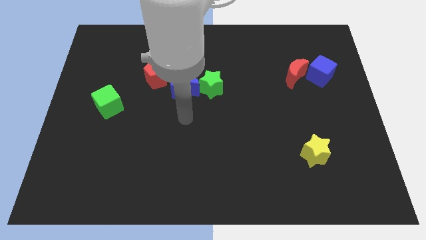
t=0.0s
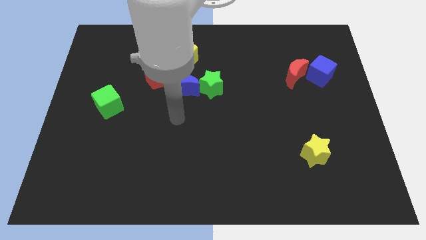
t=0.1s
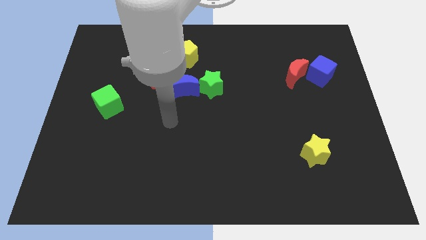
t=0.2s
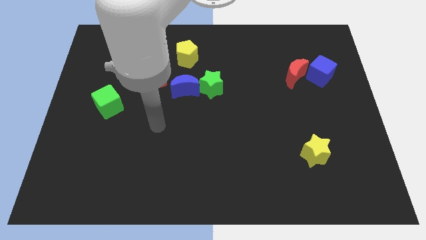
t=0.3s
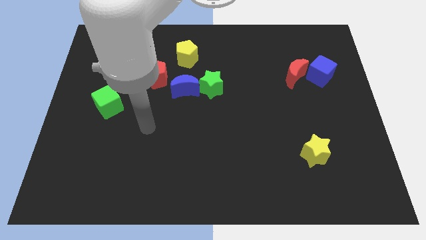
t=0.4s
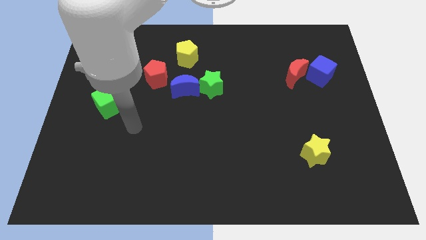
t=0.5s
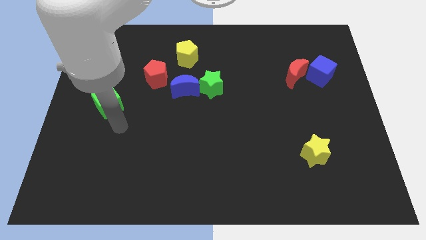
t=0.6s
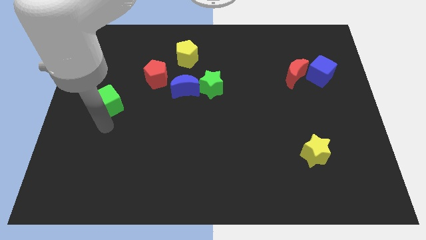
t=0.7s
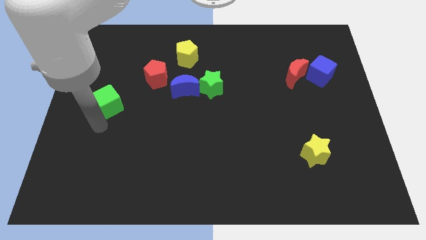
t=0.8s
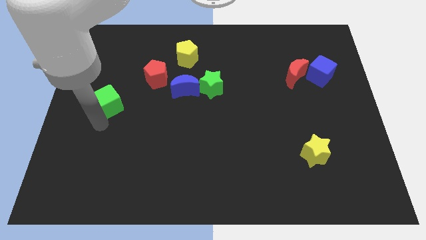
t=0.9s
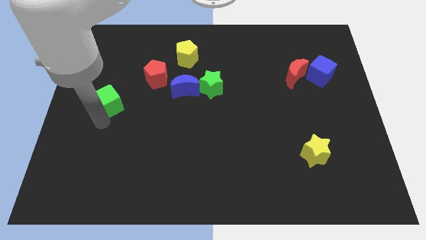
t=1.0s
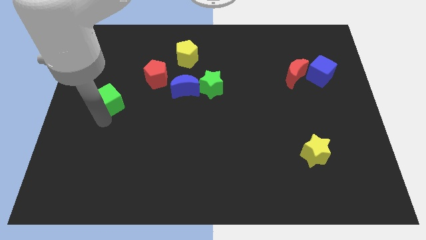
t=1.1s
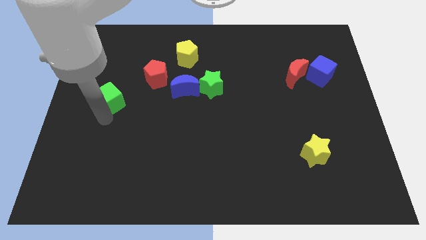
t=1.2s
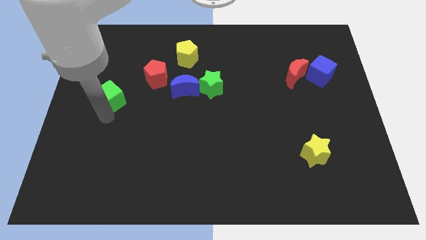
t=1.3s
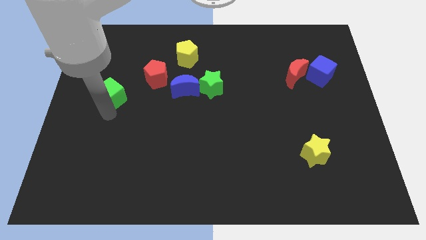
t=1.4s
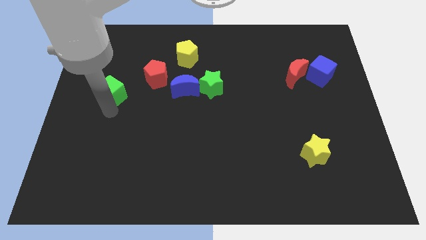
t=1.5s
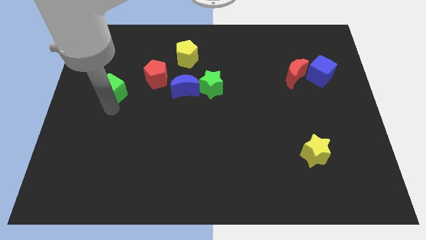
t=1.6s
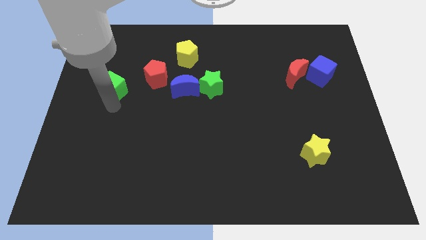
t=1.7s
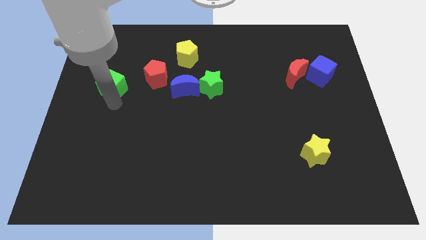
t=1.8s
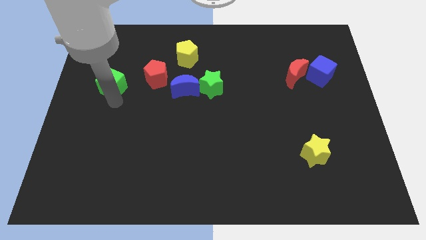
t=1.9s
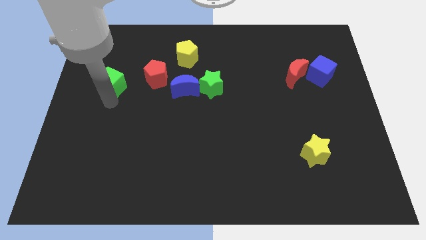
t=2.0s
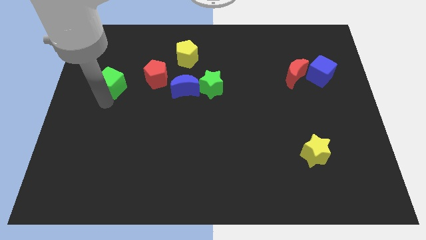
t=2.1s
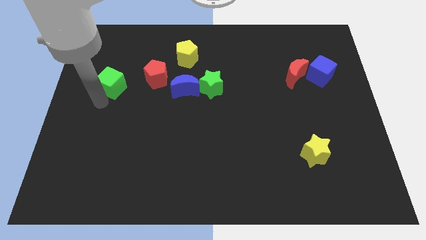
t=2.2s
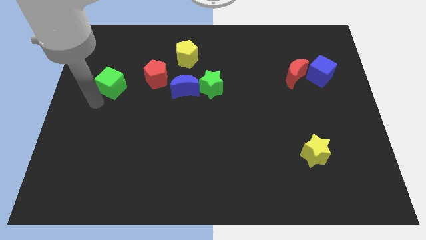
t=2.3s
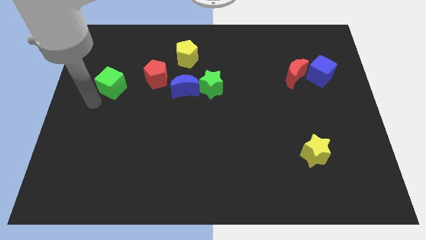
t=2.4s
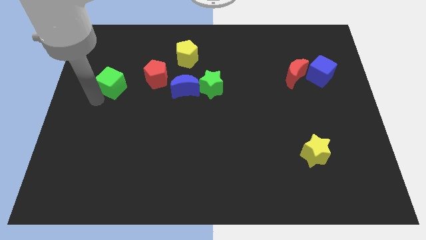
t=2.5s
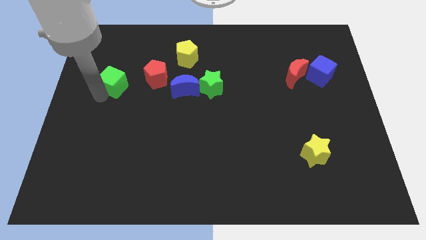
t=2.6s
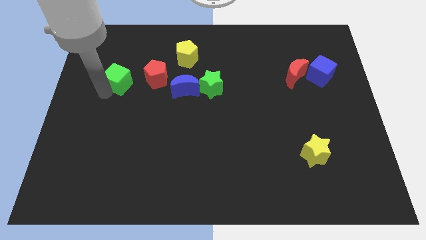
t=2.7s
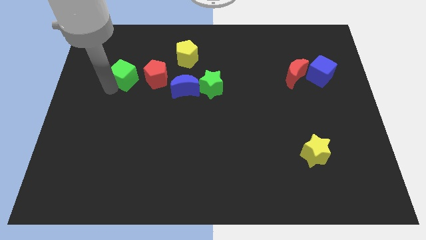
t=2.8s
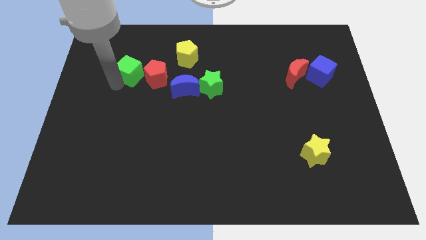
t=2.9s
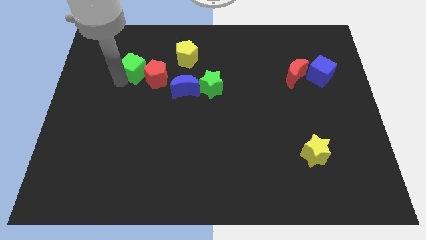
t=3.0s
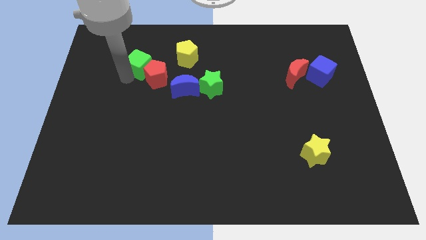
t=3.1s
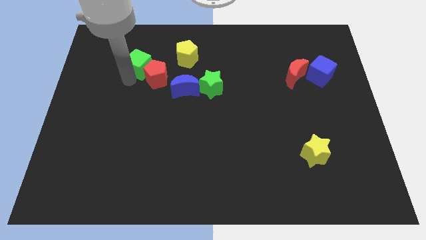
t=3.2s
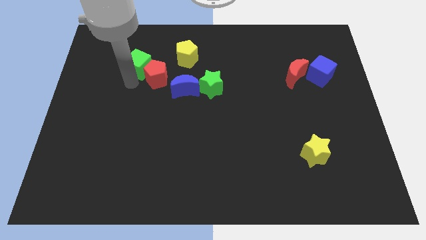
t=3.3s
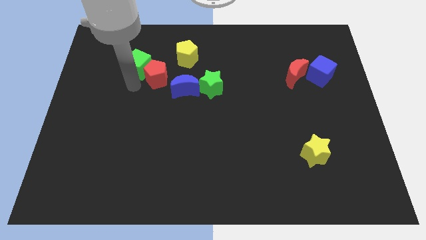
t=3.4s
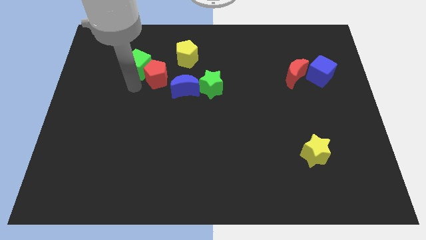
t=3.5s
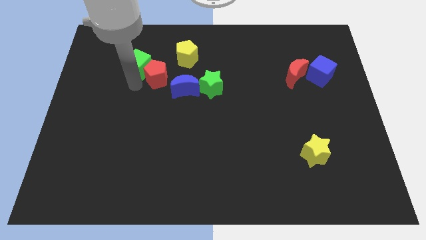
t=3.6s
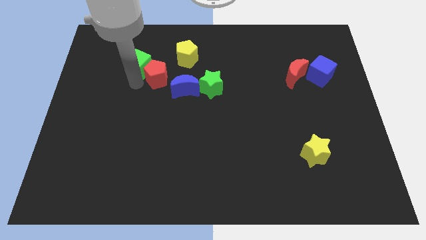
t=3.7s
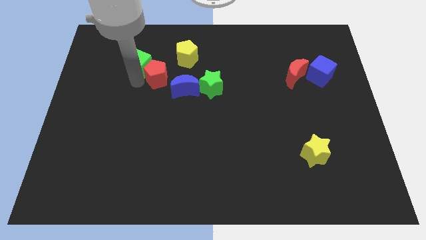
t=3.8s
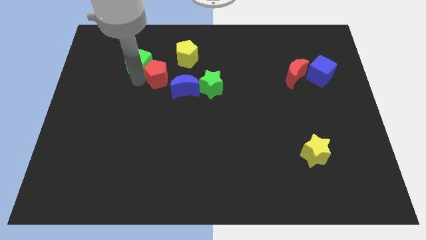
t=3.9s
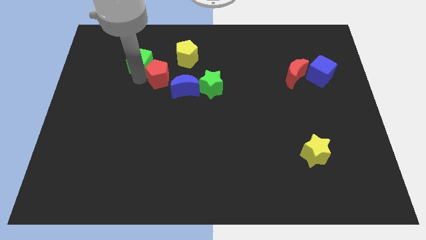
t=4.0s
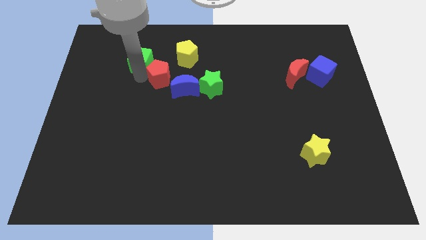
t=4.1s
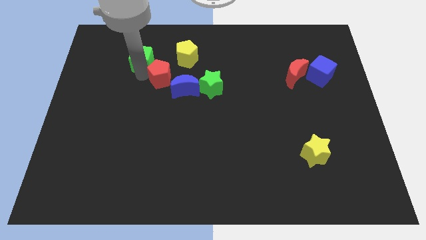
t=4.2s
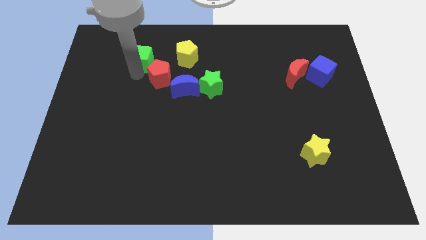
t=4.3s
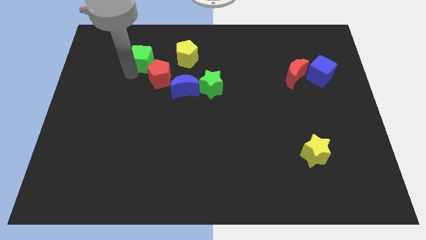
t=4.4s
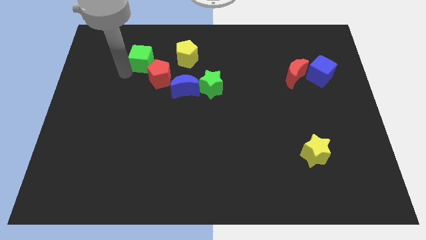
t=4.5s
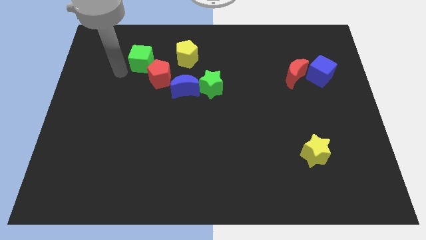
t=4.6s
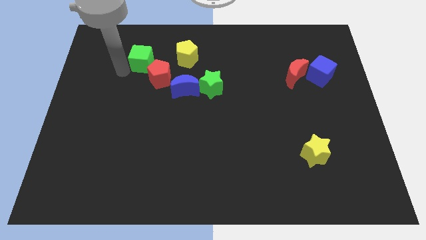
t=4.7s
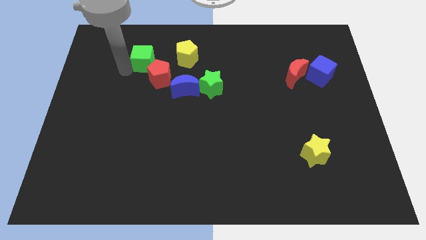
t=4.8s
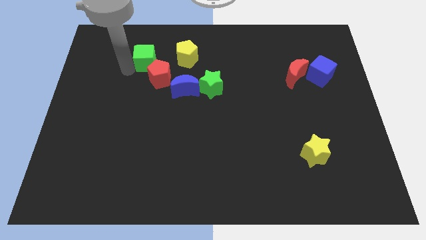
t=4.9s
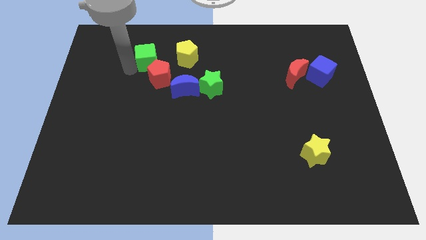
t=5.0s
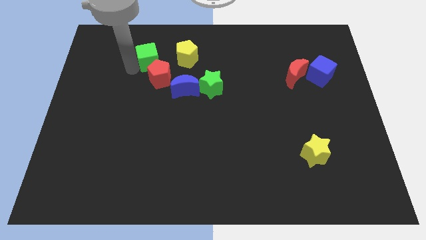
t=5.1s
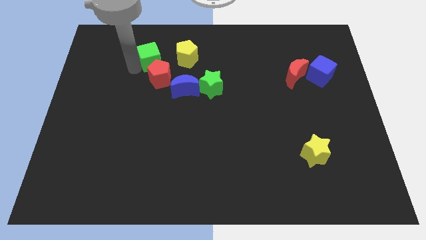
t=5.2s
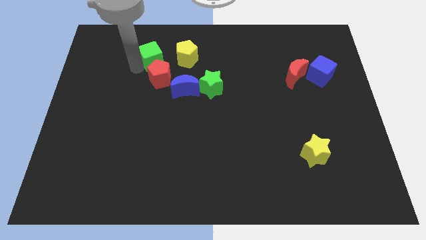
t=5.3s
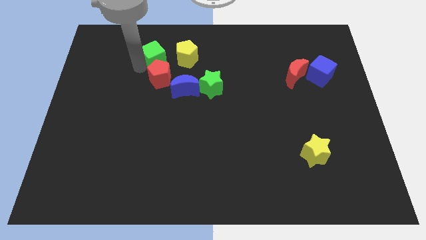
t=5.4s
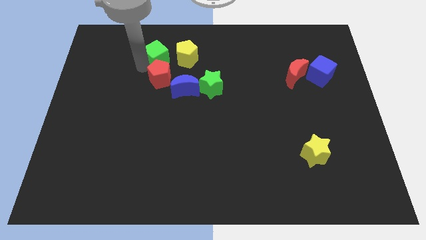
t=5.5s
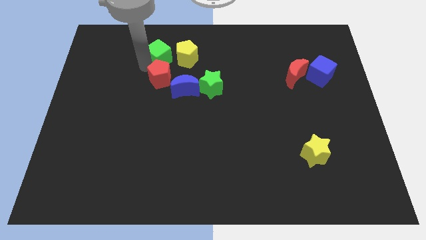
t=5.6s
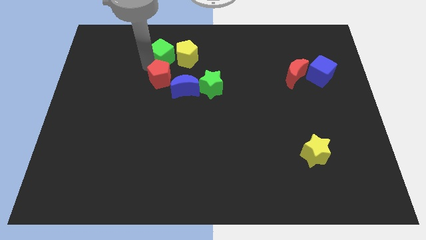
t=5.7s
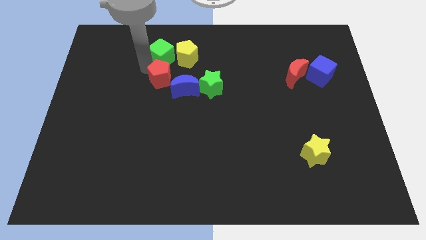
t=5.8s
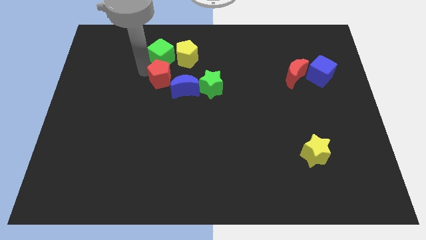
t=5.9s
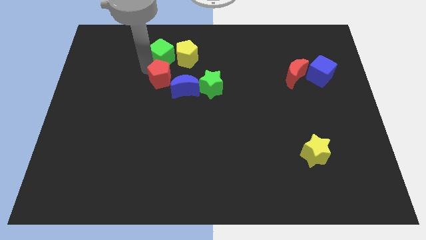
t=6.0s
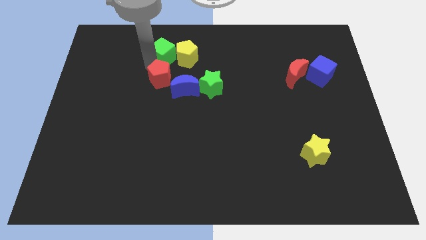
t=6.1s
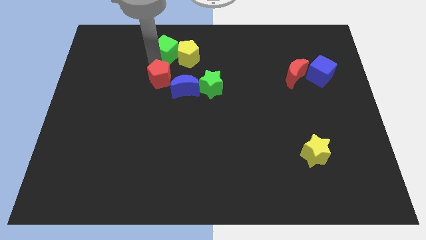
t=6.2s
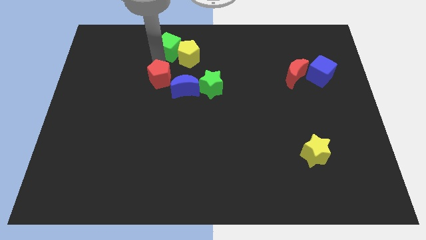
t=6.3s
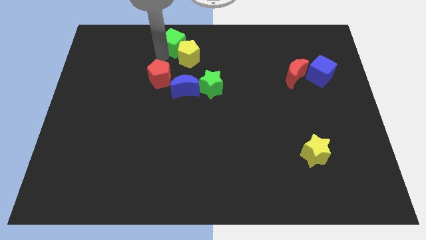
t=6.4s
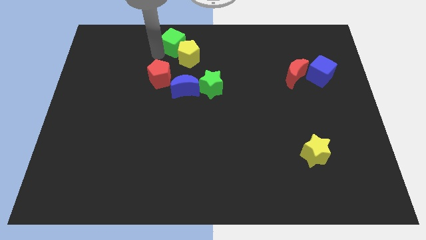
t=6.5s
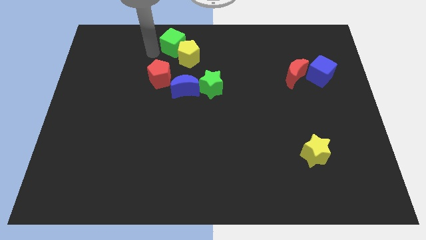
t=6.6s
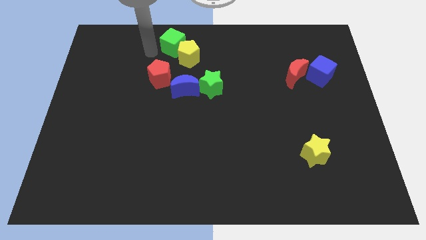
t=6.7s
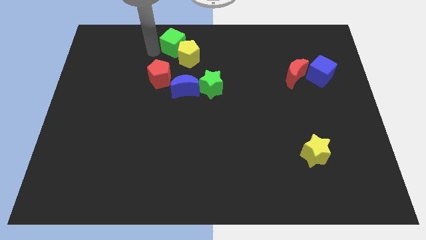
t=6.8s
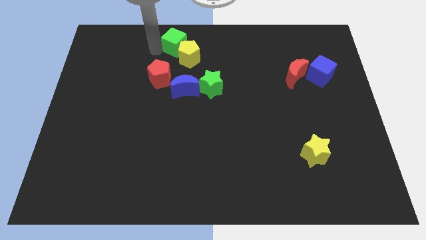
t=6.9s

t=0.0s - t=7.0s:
push the green cube to the towards your base
